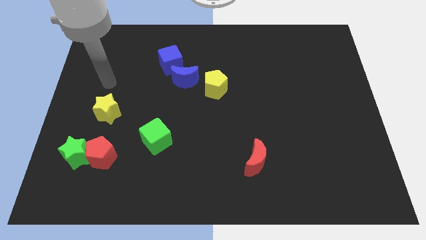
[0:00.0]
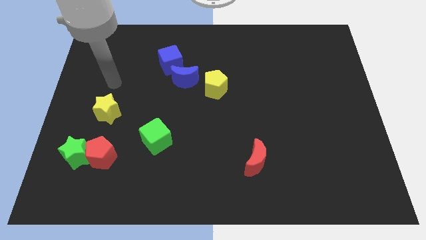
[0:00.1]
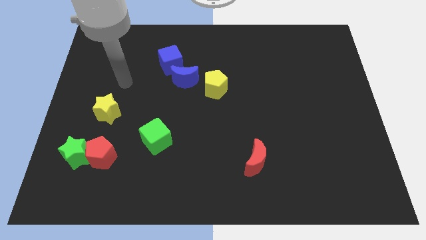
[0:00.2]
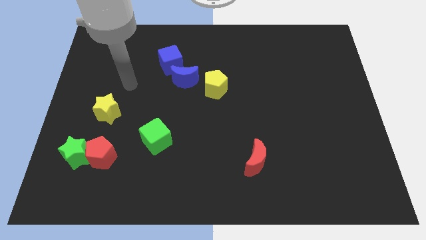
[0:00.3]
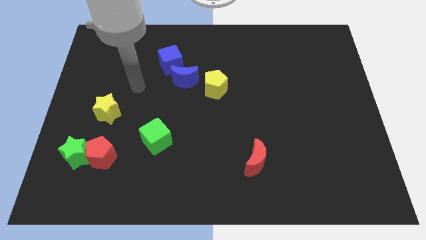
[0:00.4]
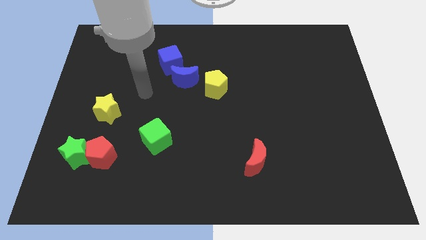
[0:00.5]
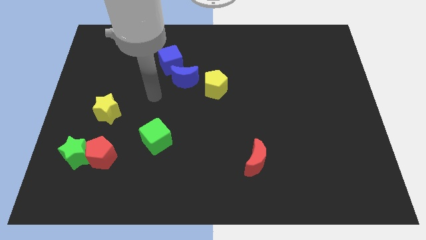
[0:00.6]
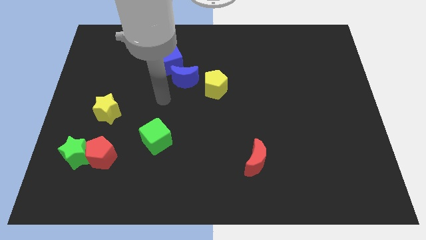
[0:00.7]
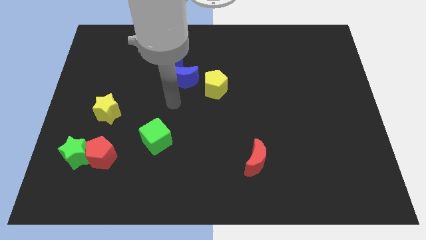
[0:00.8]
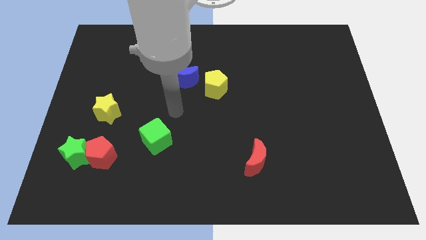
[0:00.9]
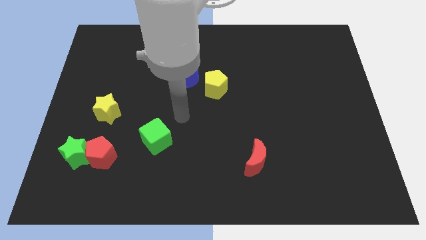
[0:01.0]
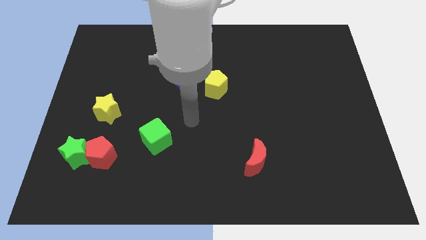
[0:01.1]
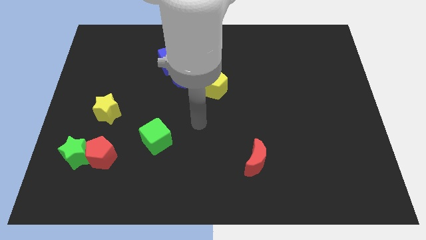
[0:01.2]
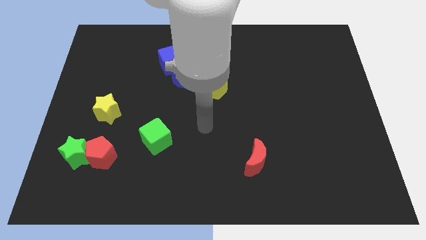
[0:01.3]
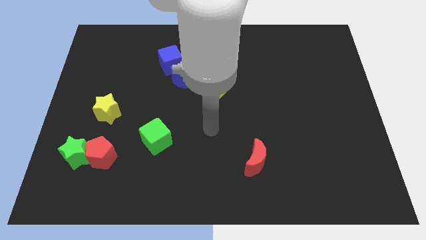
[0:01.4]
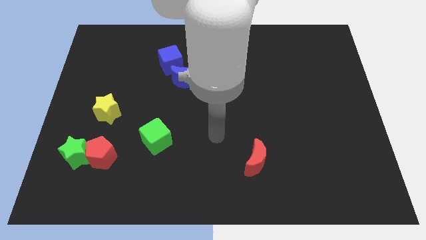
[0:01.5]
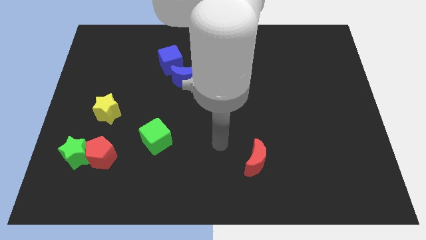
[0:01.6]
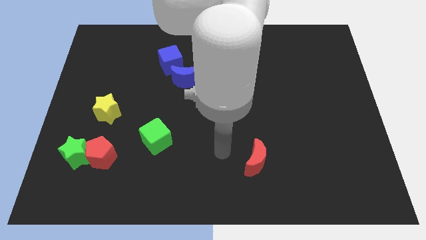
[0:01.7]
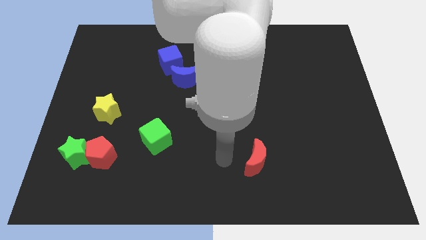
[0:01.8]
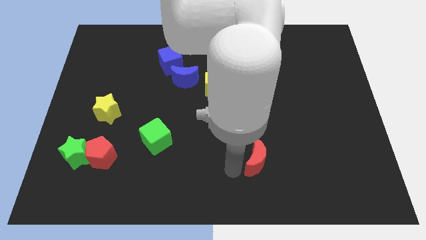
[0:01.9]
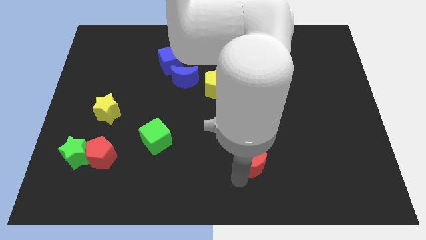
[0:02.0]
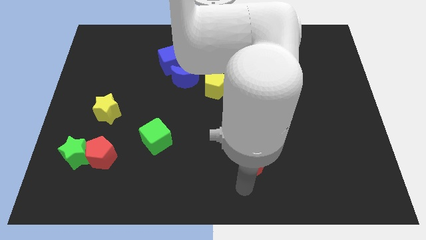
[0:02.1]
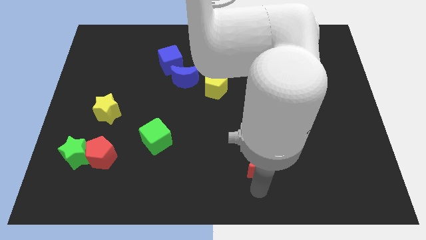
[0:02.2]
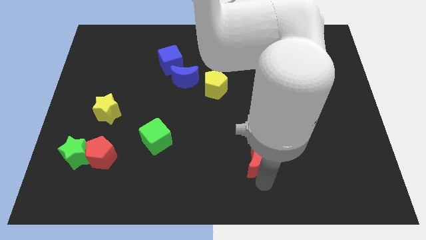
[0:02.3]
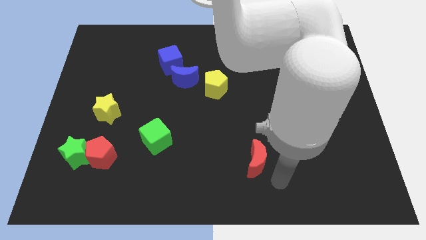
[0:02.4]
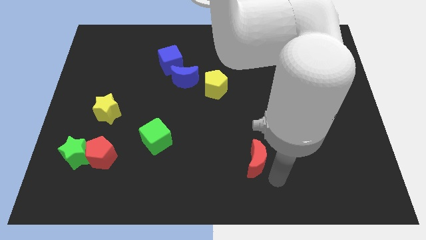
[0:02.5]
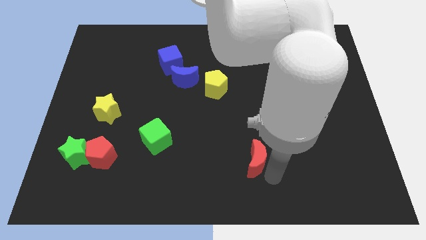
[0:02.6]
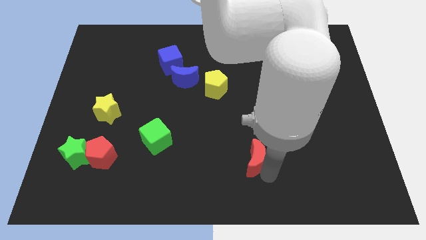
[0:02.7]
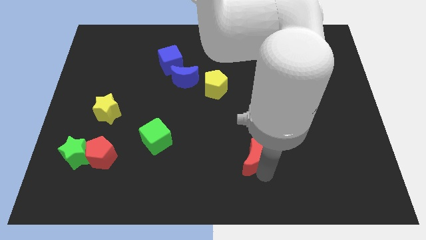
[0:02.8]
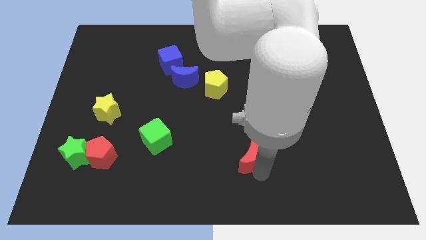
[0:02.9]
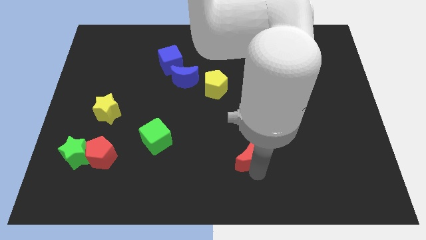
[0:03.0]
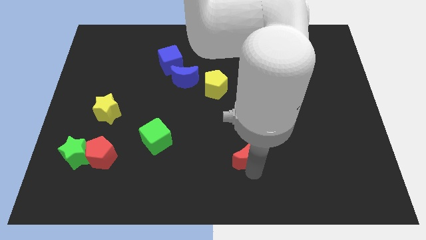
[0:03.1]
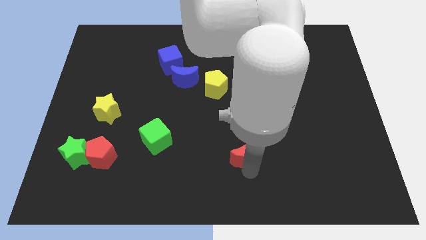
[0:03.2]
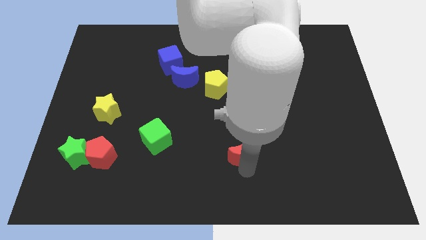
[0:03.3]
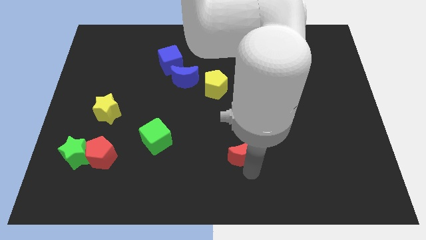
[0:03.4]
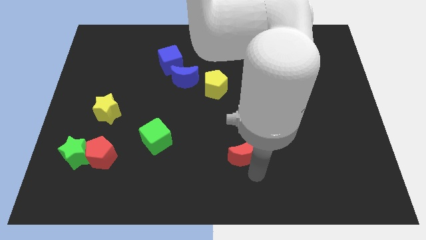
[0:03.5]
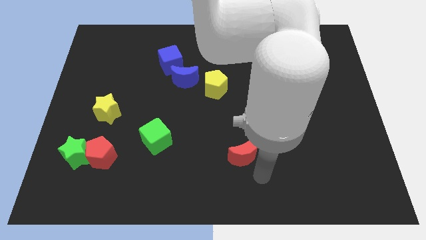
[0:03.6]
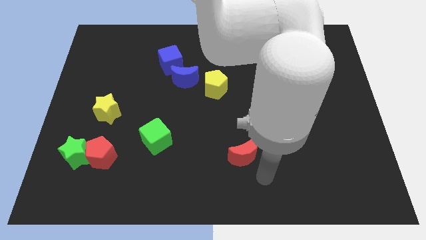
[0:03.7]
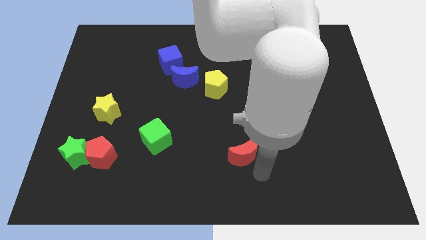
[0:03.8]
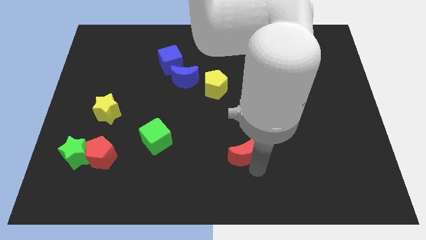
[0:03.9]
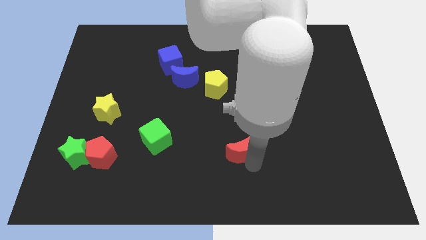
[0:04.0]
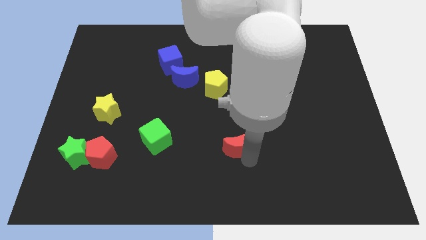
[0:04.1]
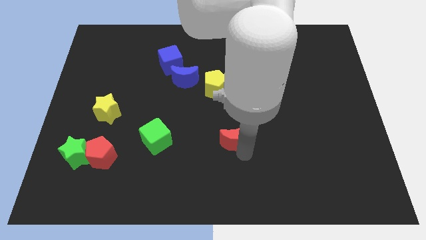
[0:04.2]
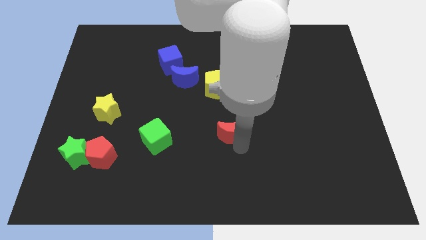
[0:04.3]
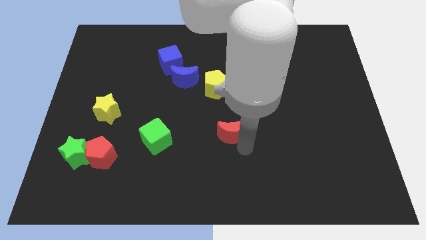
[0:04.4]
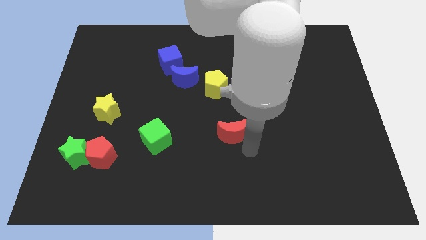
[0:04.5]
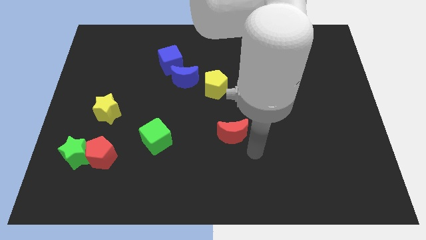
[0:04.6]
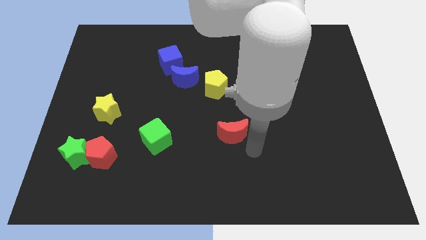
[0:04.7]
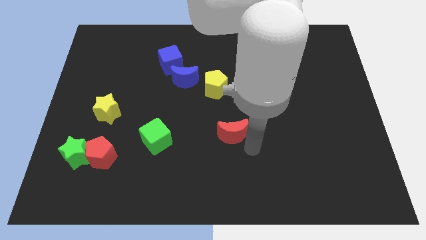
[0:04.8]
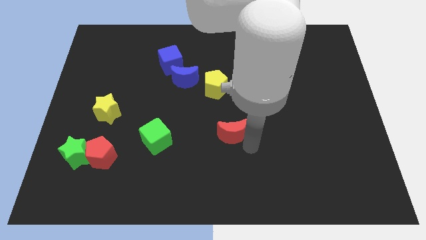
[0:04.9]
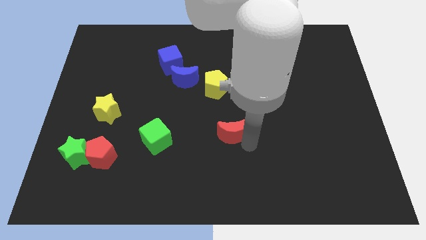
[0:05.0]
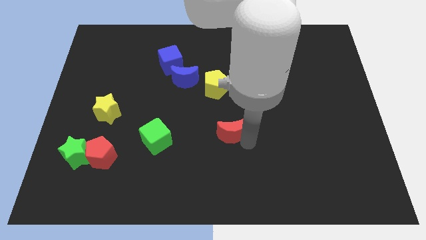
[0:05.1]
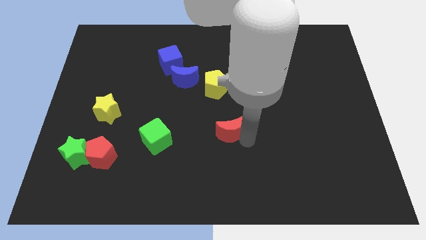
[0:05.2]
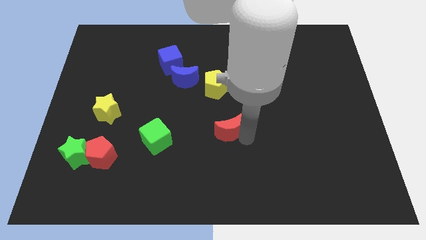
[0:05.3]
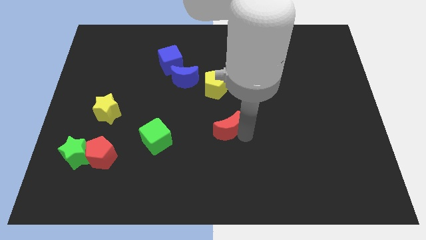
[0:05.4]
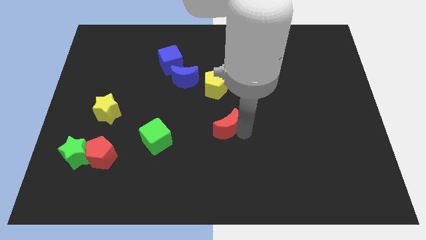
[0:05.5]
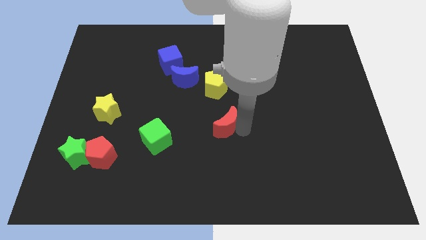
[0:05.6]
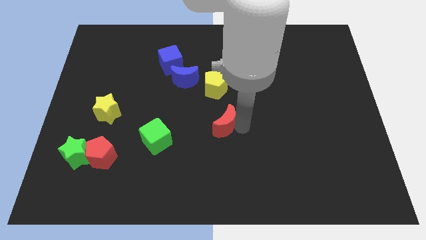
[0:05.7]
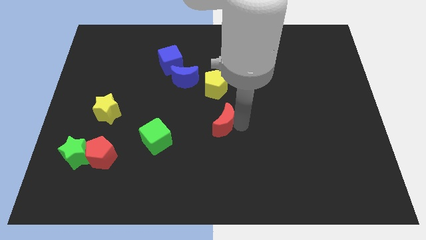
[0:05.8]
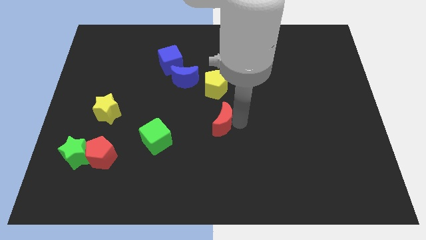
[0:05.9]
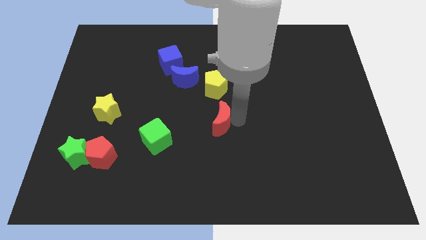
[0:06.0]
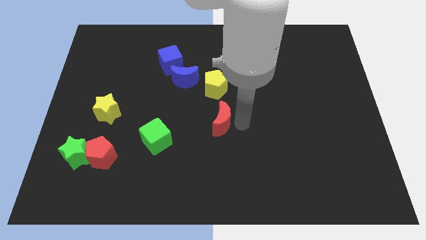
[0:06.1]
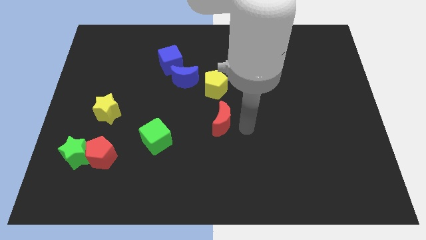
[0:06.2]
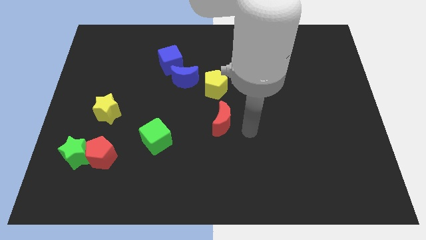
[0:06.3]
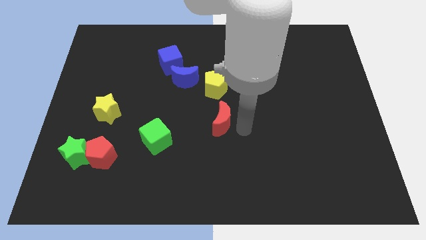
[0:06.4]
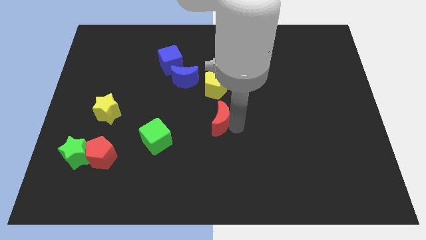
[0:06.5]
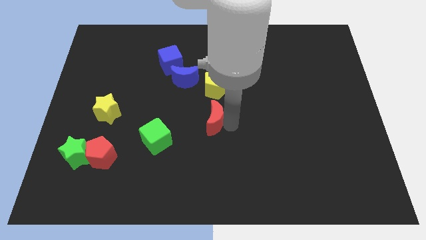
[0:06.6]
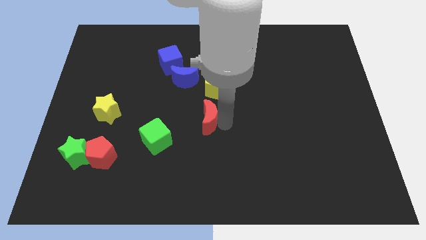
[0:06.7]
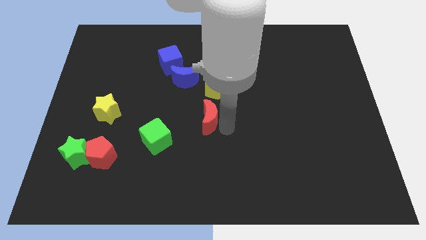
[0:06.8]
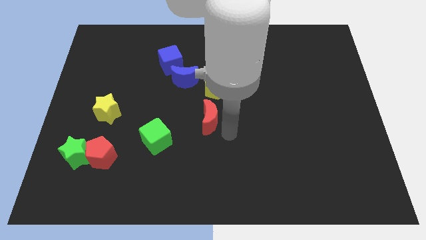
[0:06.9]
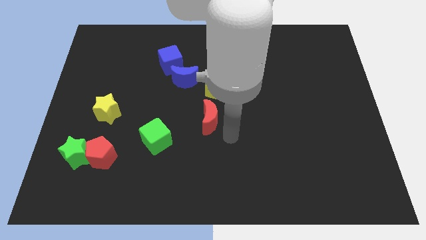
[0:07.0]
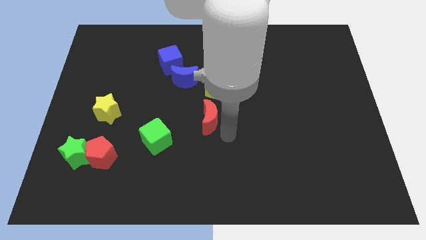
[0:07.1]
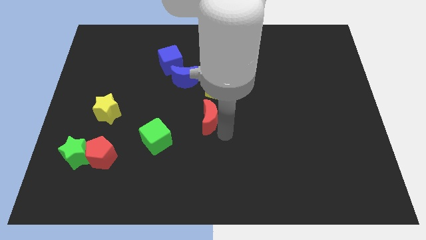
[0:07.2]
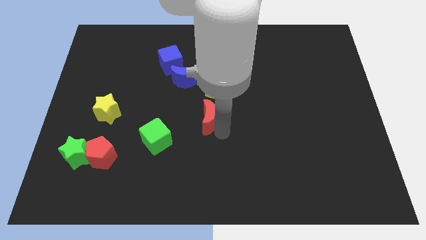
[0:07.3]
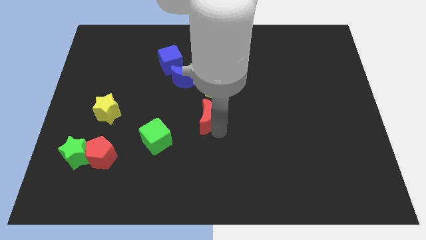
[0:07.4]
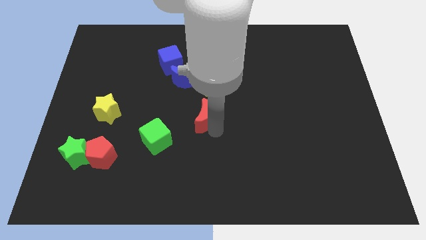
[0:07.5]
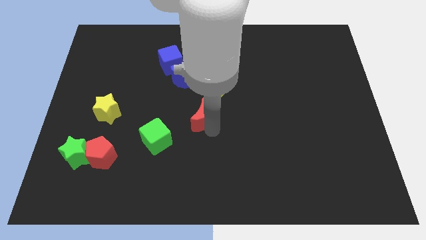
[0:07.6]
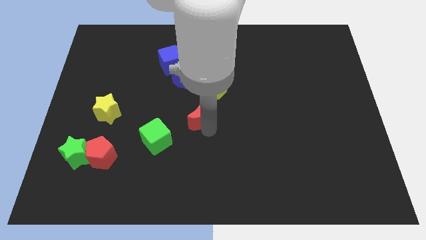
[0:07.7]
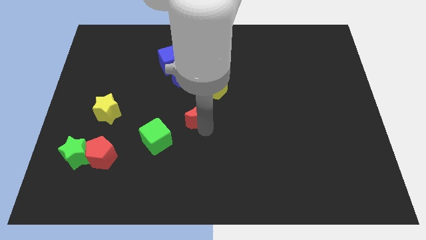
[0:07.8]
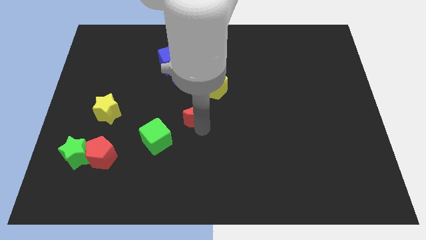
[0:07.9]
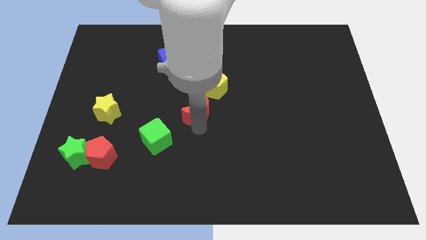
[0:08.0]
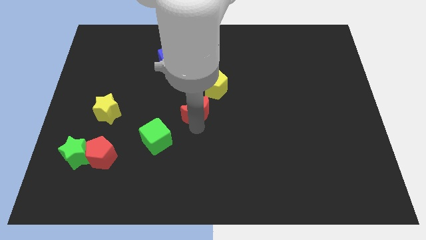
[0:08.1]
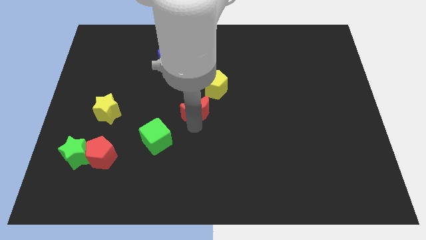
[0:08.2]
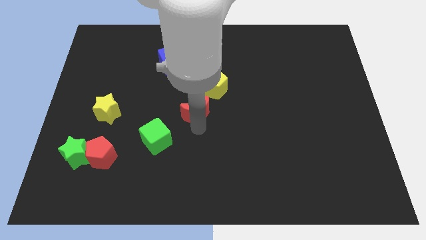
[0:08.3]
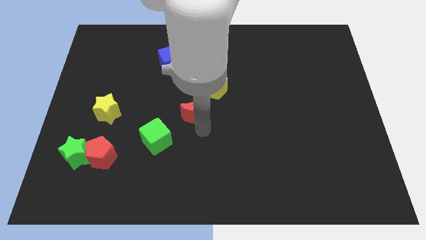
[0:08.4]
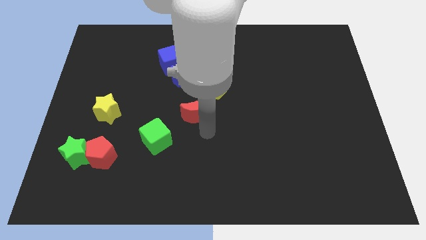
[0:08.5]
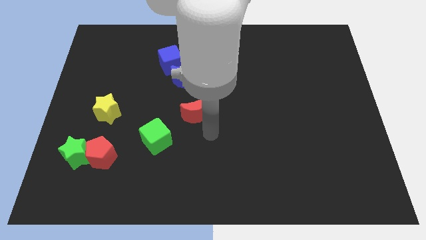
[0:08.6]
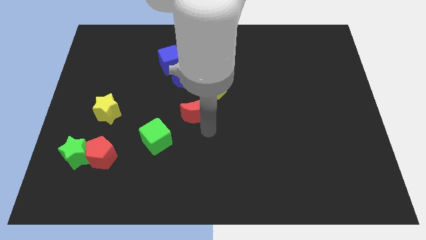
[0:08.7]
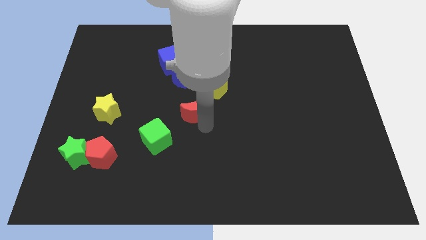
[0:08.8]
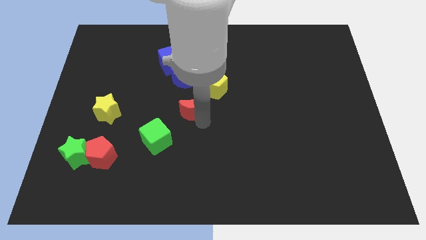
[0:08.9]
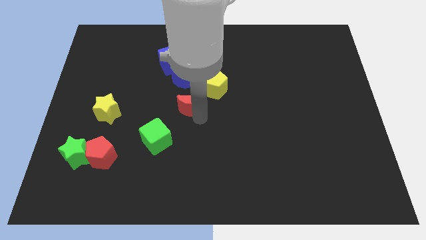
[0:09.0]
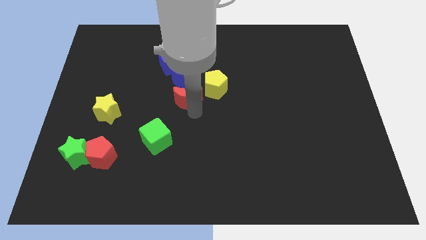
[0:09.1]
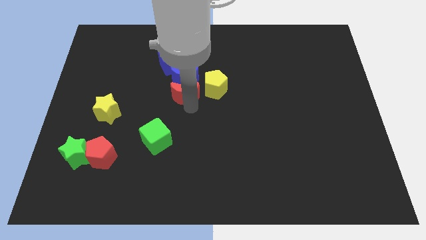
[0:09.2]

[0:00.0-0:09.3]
push the red moon close to the blue moon
